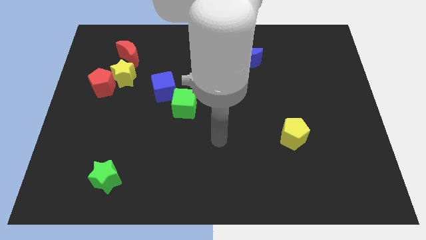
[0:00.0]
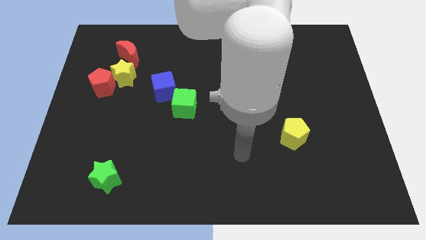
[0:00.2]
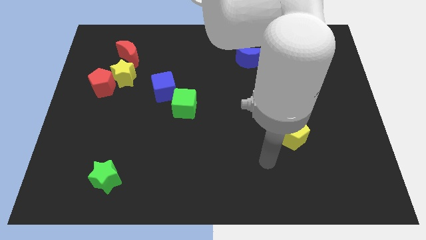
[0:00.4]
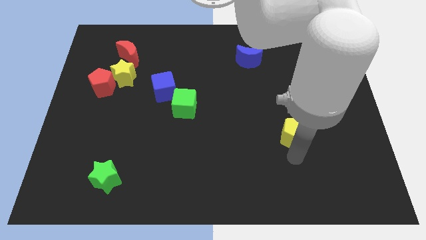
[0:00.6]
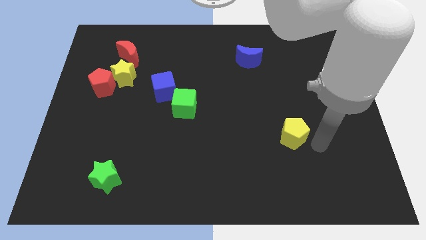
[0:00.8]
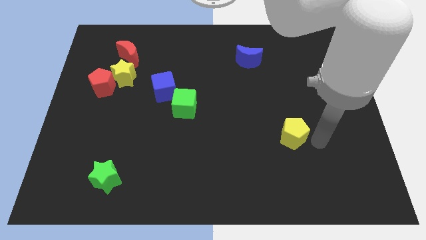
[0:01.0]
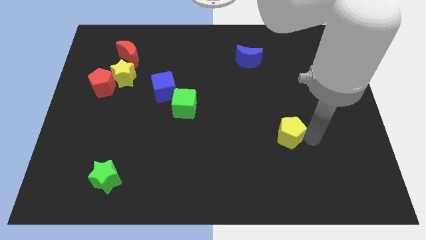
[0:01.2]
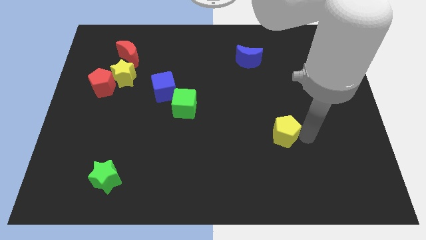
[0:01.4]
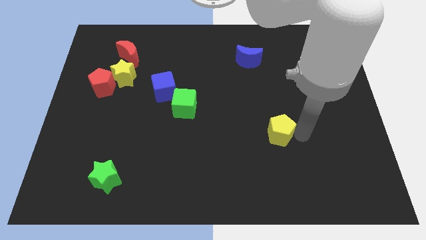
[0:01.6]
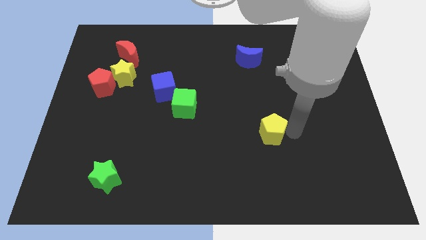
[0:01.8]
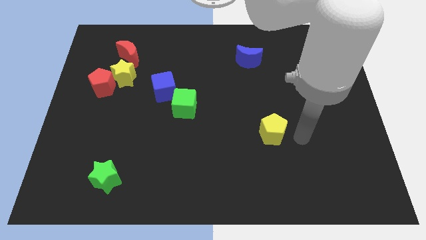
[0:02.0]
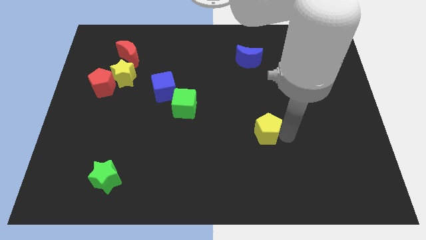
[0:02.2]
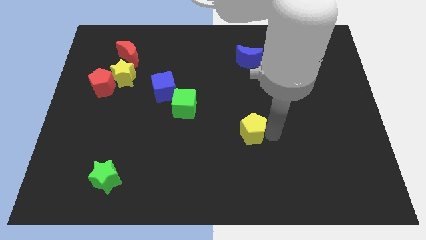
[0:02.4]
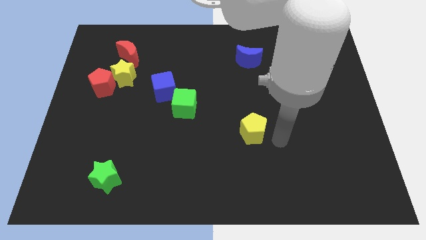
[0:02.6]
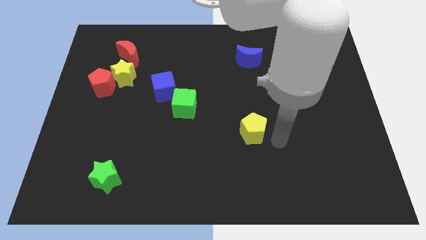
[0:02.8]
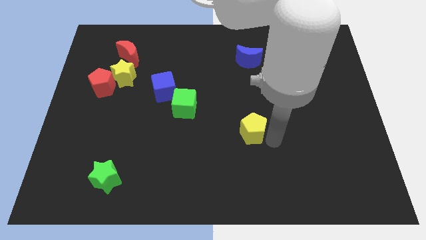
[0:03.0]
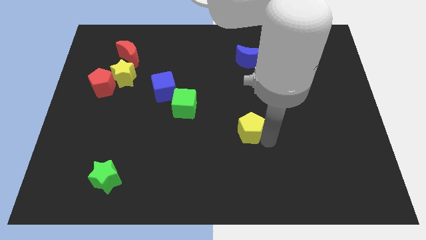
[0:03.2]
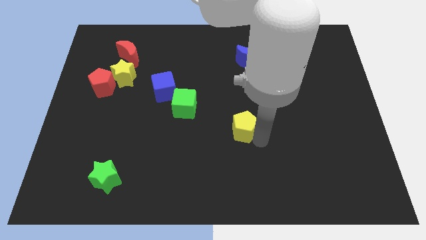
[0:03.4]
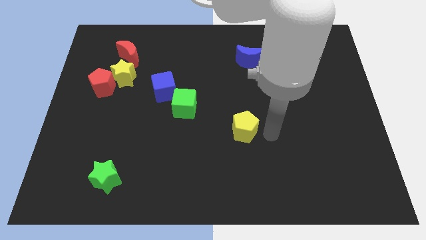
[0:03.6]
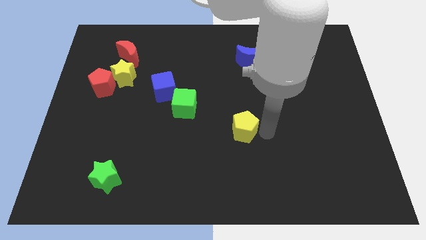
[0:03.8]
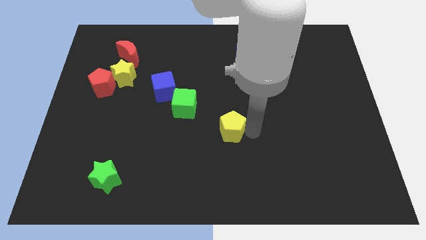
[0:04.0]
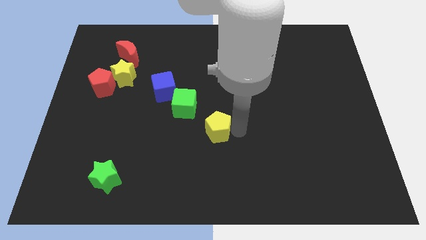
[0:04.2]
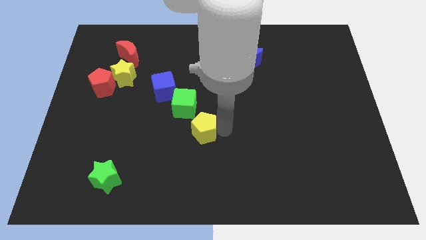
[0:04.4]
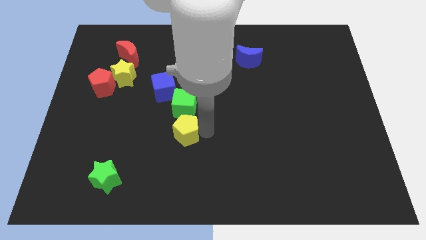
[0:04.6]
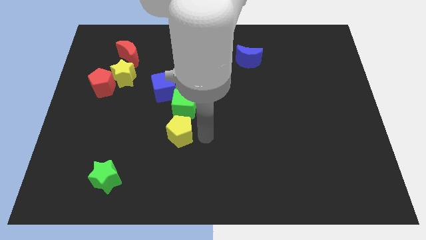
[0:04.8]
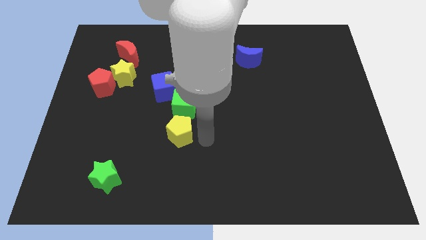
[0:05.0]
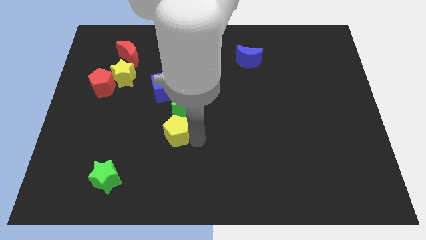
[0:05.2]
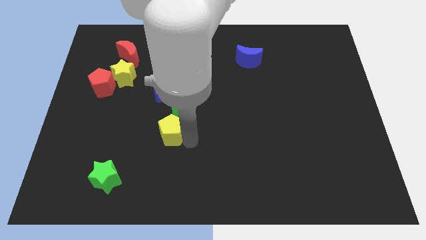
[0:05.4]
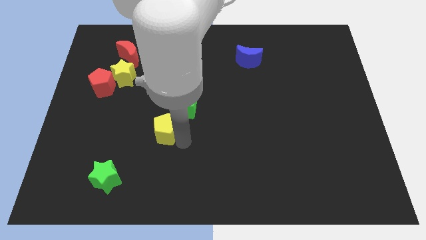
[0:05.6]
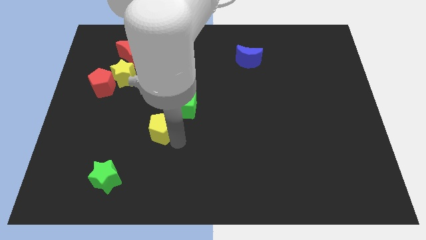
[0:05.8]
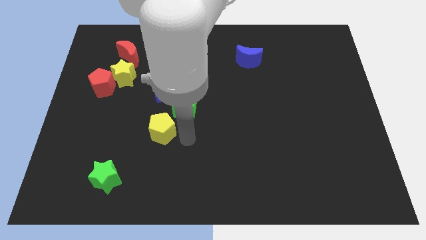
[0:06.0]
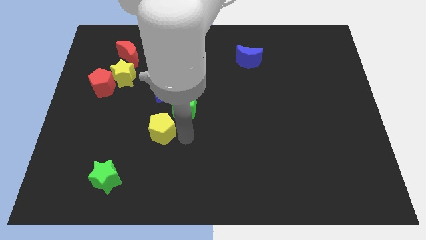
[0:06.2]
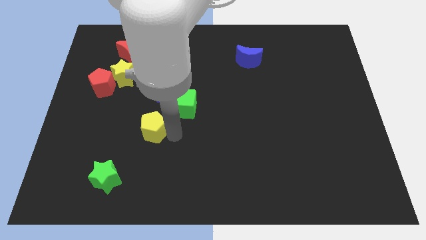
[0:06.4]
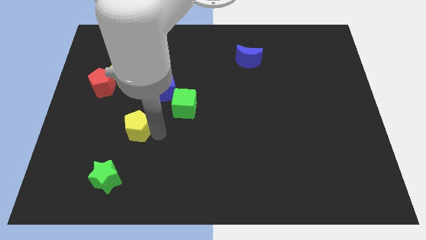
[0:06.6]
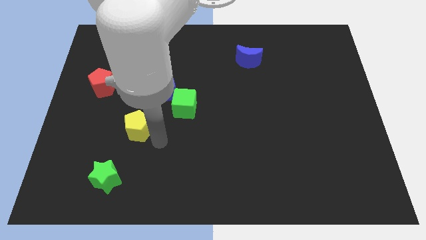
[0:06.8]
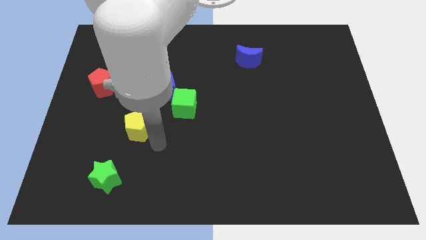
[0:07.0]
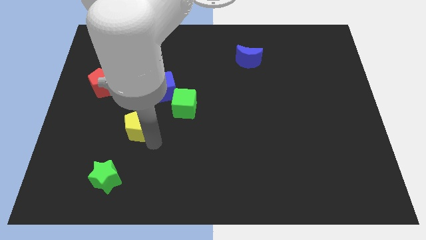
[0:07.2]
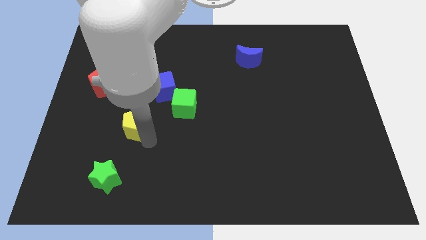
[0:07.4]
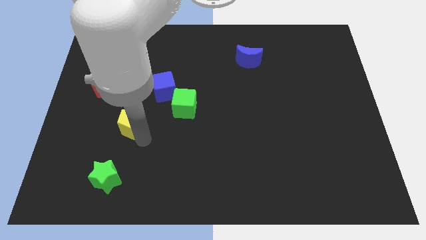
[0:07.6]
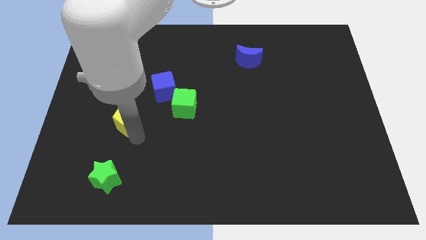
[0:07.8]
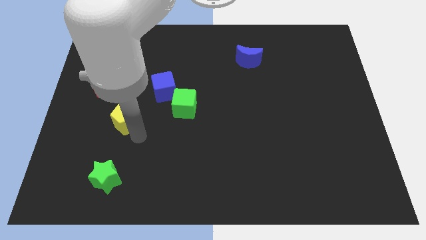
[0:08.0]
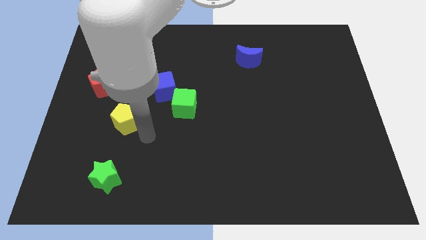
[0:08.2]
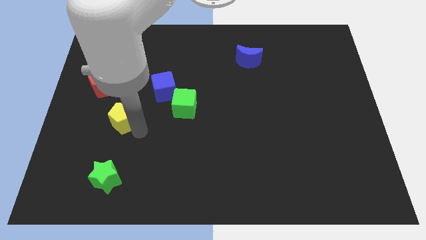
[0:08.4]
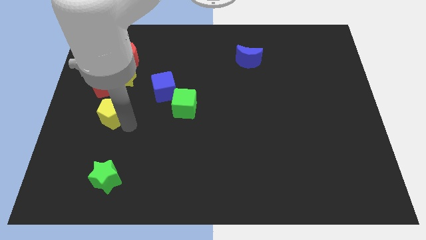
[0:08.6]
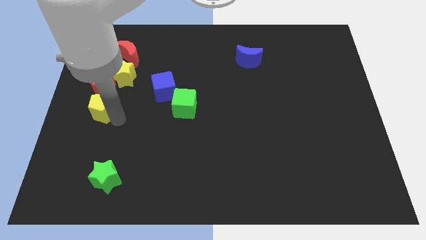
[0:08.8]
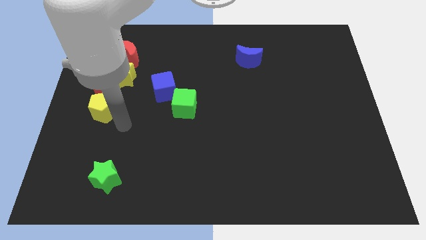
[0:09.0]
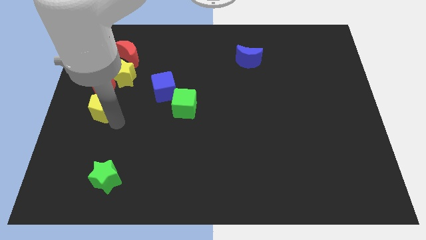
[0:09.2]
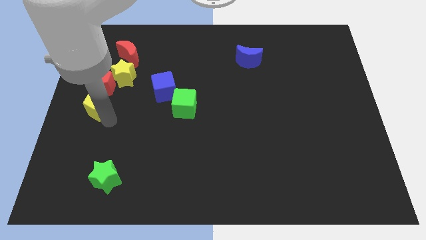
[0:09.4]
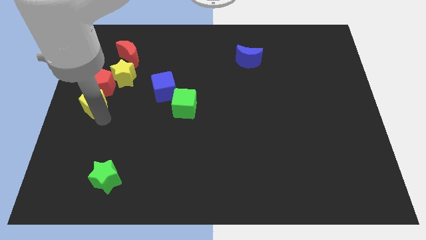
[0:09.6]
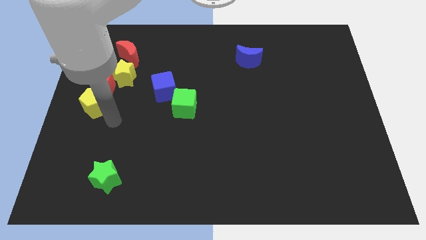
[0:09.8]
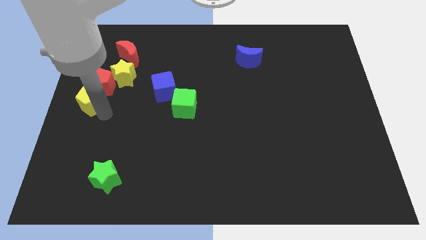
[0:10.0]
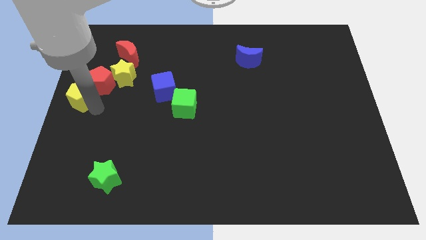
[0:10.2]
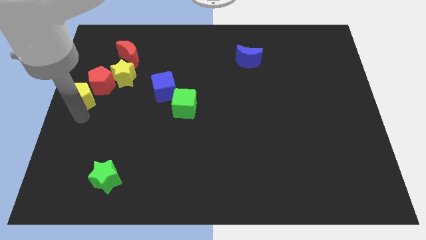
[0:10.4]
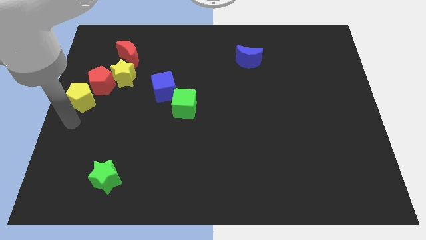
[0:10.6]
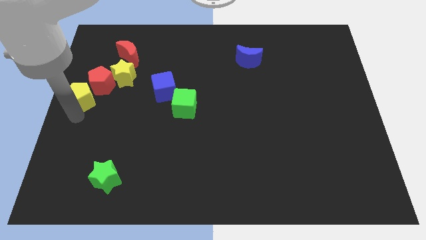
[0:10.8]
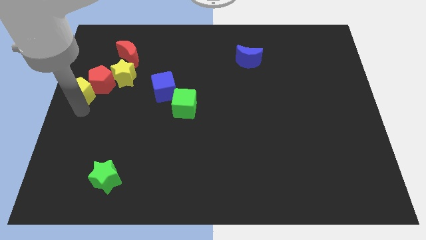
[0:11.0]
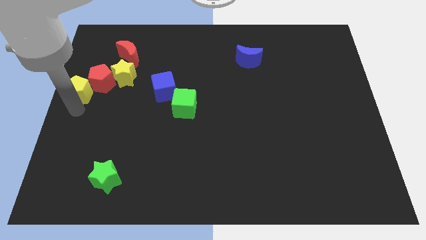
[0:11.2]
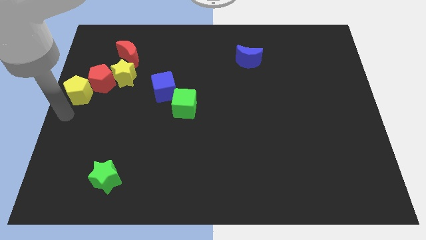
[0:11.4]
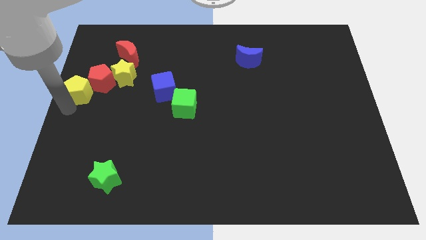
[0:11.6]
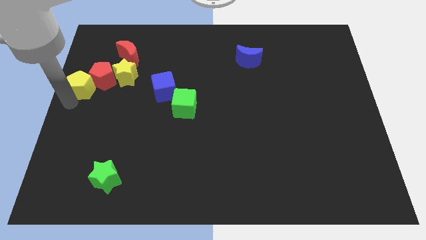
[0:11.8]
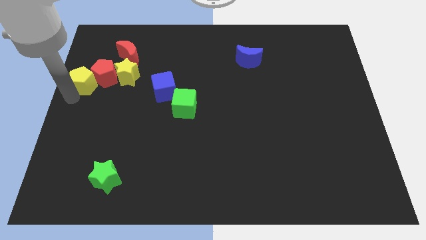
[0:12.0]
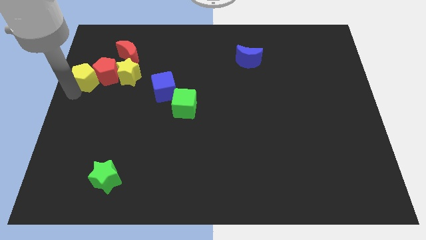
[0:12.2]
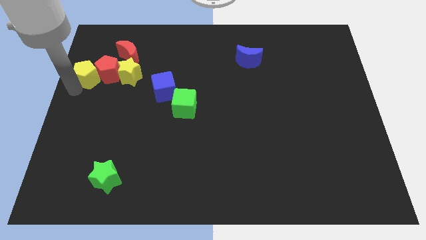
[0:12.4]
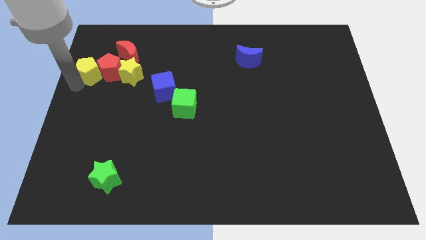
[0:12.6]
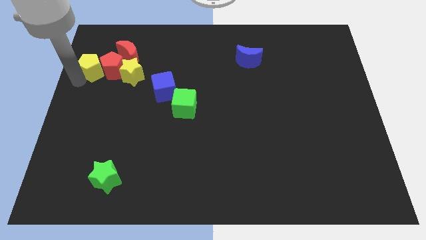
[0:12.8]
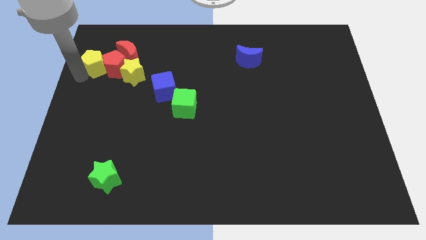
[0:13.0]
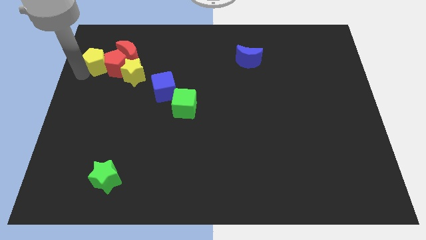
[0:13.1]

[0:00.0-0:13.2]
move the yellow pentagon to the top left side of the yellow star

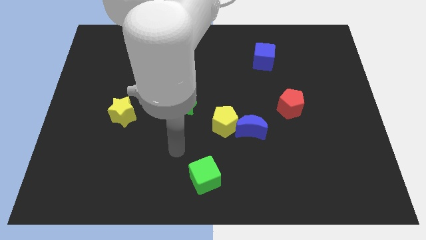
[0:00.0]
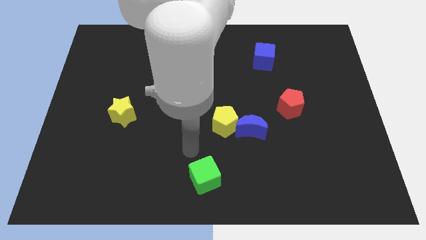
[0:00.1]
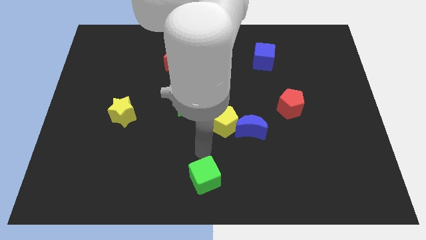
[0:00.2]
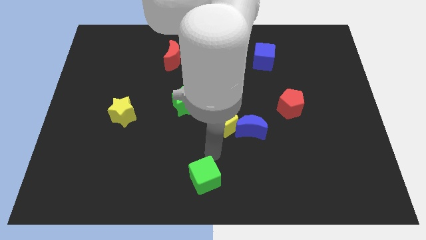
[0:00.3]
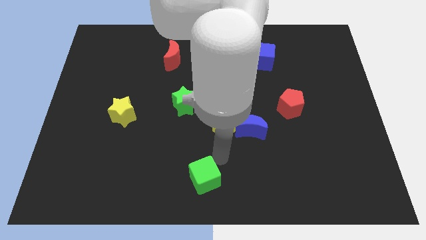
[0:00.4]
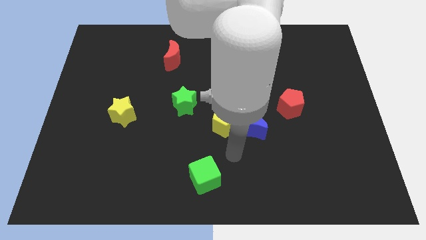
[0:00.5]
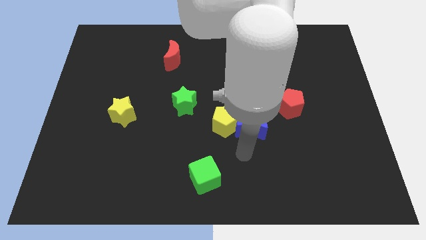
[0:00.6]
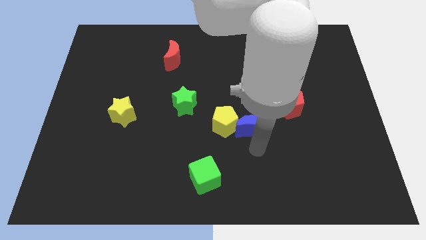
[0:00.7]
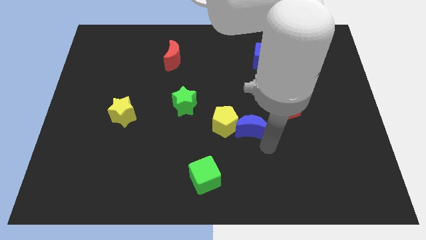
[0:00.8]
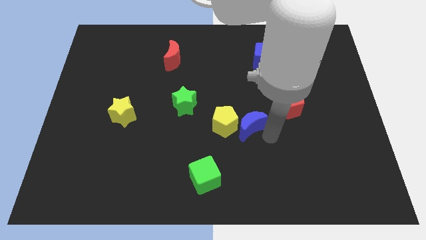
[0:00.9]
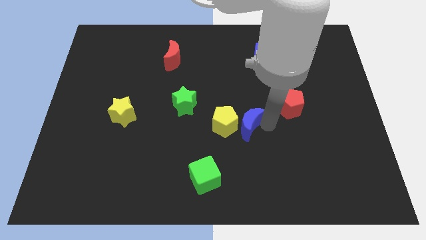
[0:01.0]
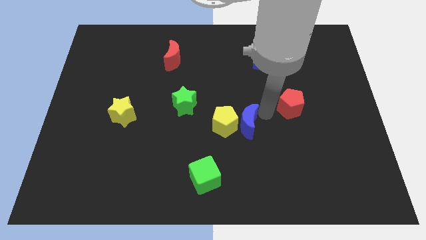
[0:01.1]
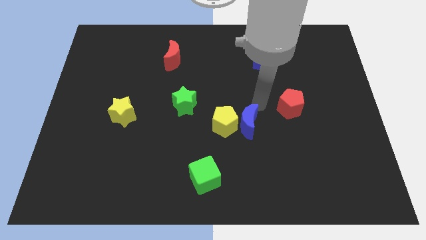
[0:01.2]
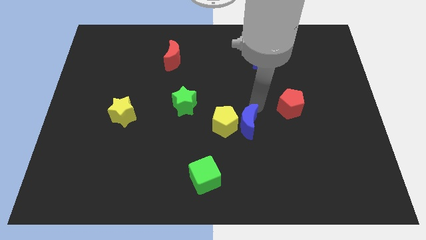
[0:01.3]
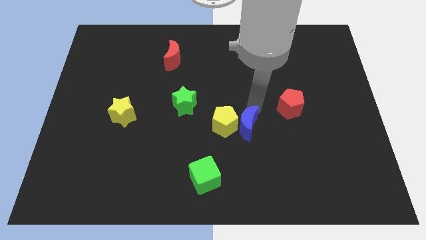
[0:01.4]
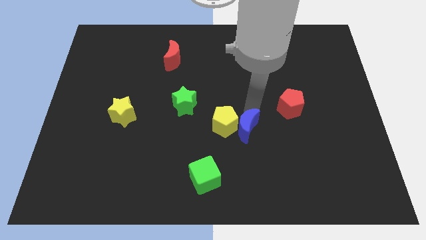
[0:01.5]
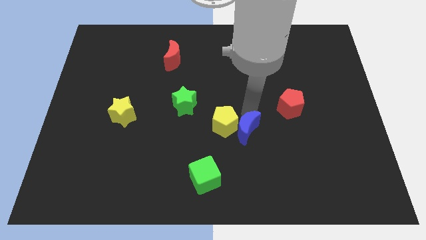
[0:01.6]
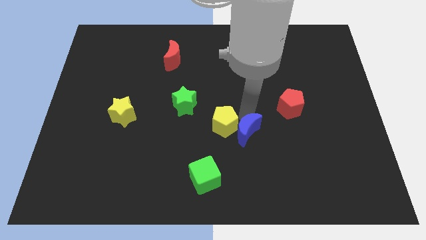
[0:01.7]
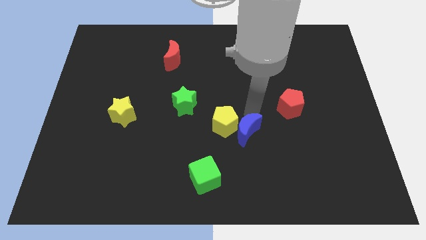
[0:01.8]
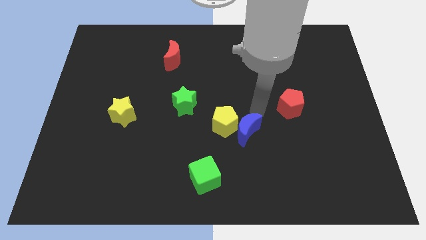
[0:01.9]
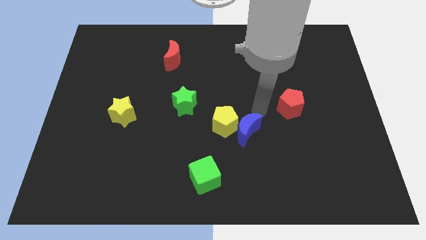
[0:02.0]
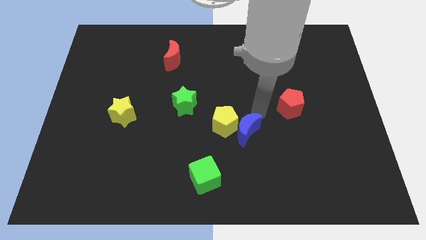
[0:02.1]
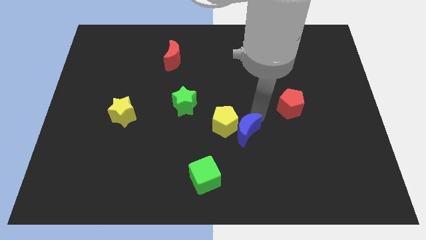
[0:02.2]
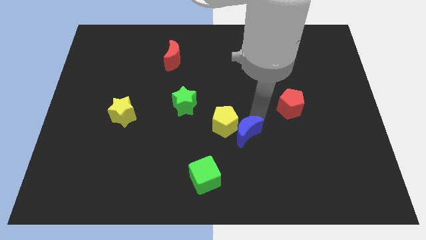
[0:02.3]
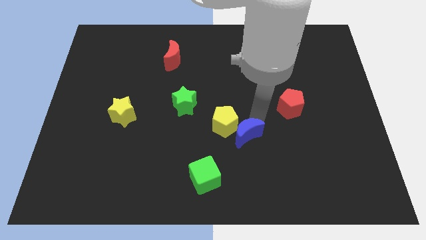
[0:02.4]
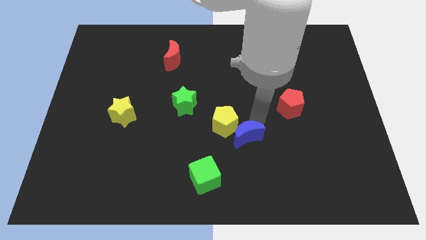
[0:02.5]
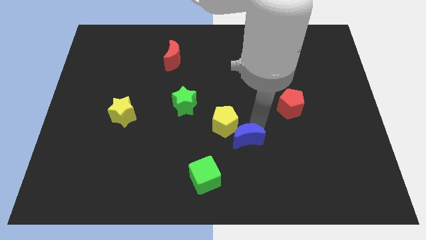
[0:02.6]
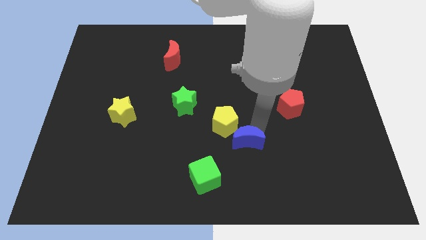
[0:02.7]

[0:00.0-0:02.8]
put the blue moon to the top right side of the green cube
